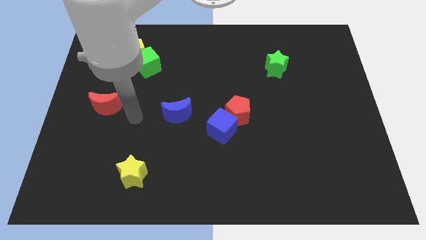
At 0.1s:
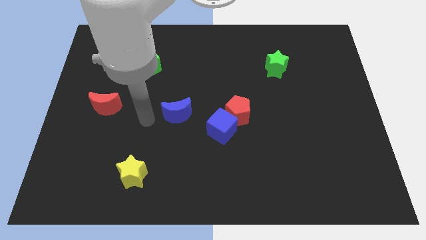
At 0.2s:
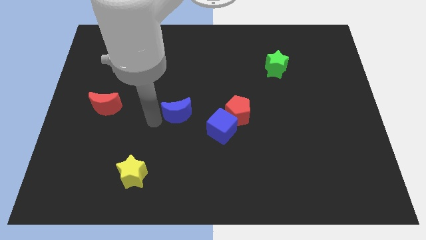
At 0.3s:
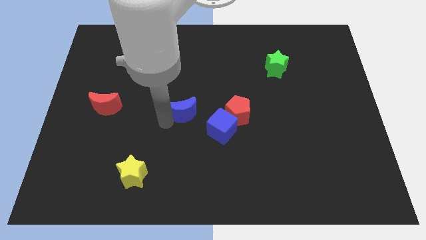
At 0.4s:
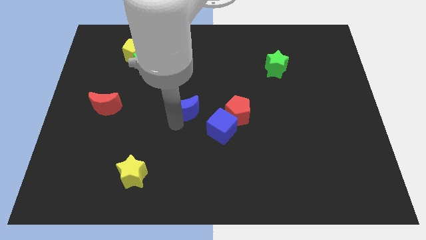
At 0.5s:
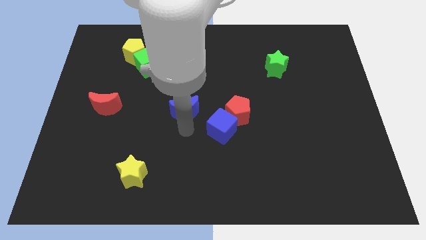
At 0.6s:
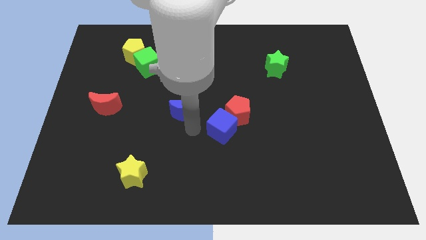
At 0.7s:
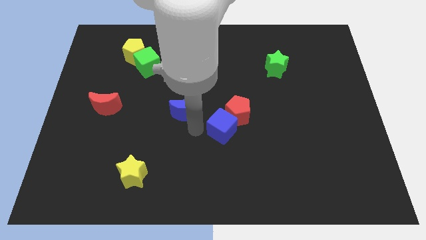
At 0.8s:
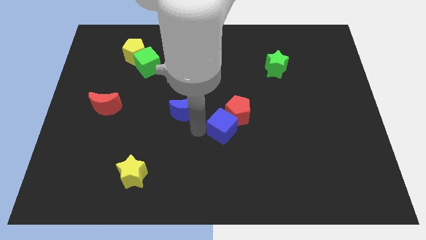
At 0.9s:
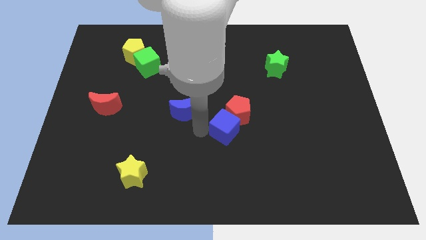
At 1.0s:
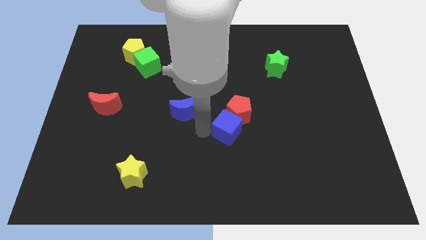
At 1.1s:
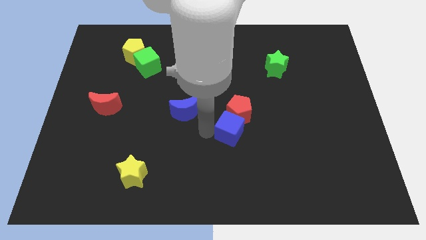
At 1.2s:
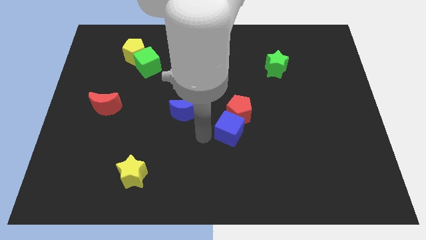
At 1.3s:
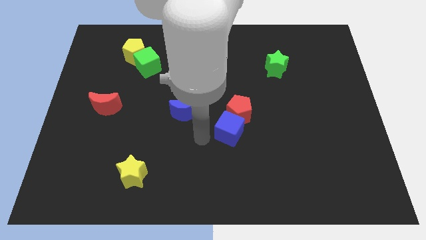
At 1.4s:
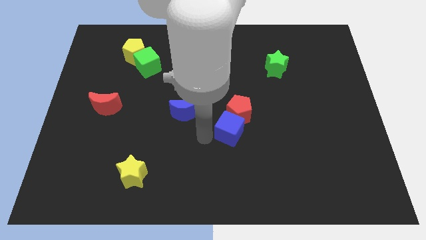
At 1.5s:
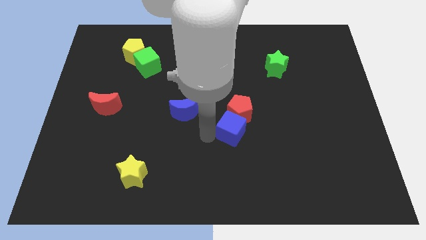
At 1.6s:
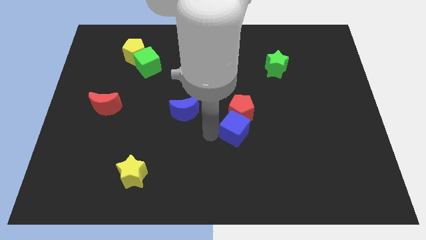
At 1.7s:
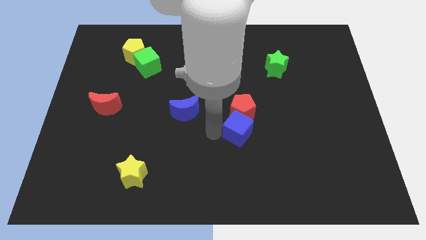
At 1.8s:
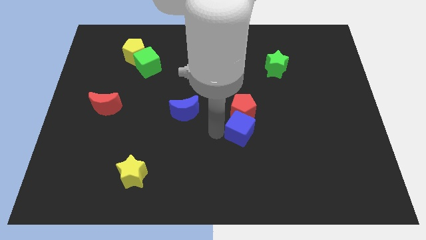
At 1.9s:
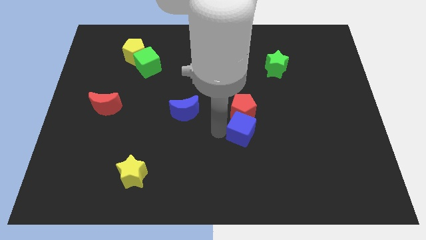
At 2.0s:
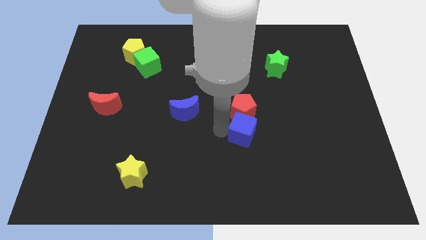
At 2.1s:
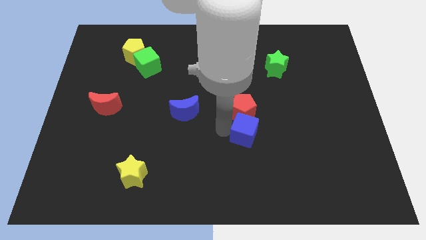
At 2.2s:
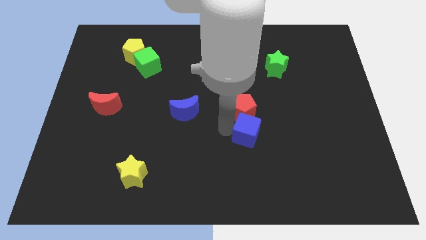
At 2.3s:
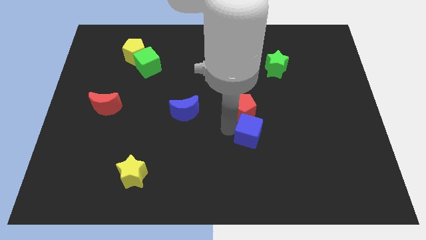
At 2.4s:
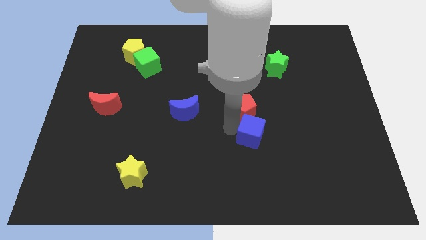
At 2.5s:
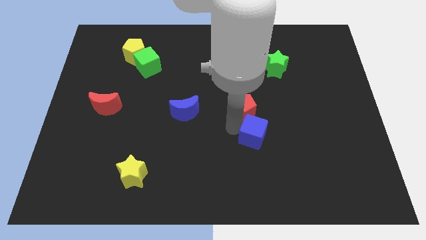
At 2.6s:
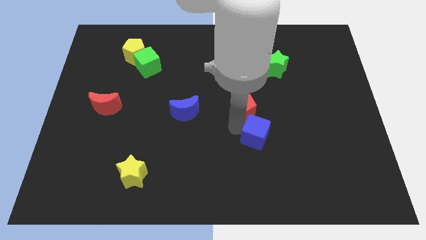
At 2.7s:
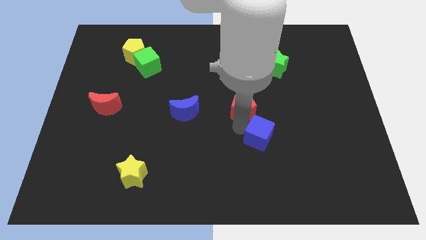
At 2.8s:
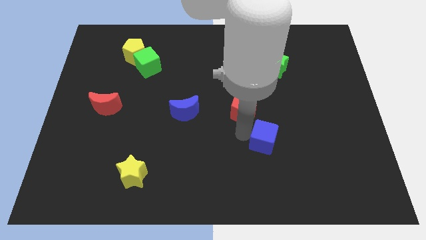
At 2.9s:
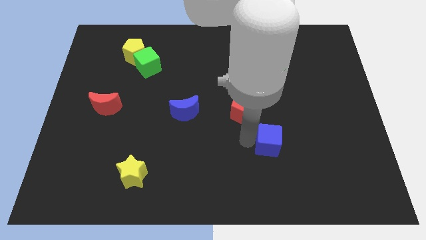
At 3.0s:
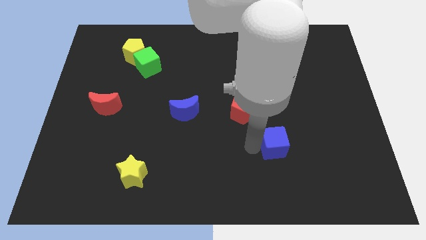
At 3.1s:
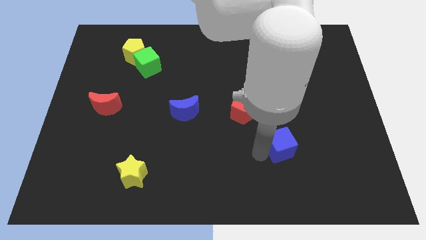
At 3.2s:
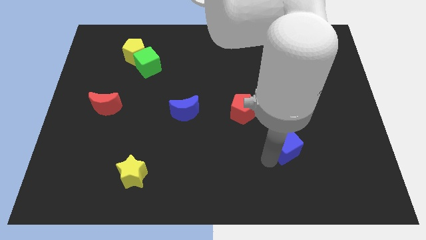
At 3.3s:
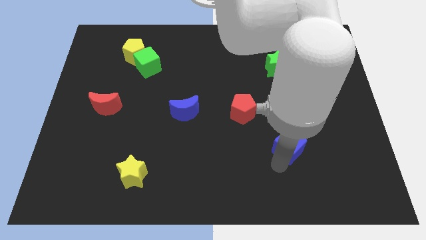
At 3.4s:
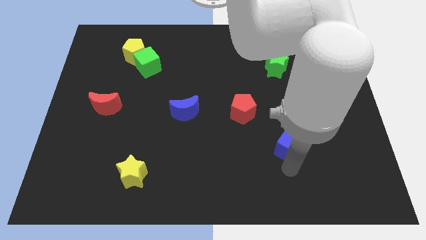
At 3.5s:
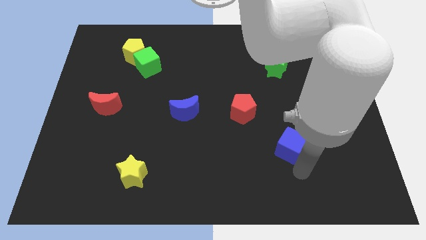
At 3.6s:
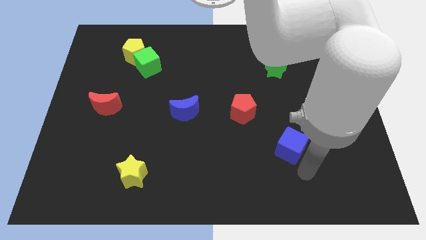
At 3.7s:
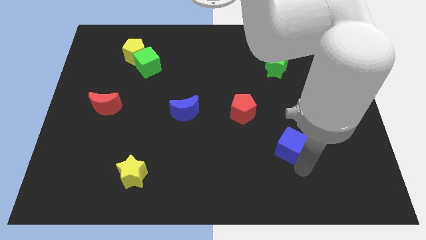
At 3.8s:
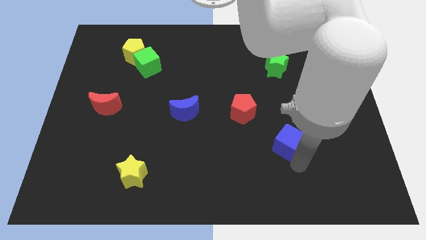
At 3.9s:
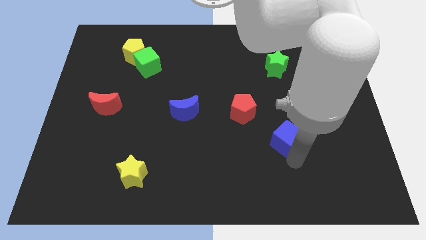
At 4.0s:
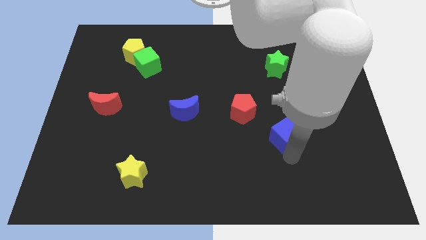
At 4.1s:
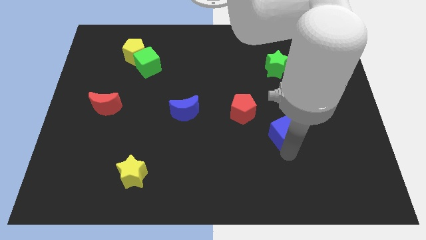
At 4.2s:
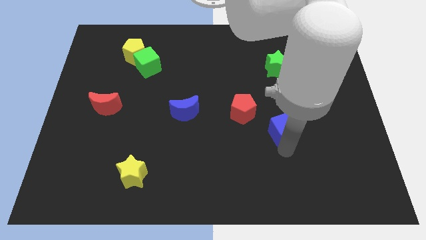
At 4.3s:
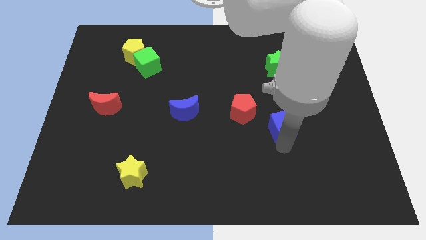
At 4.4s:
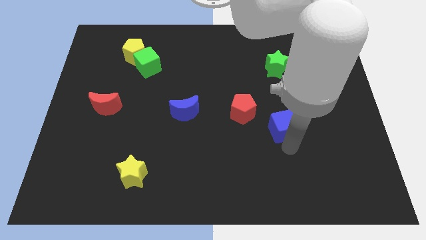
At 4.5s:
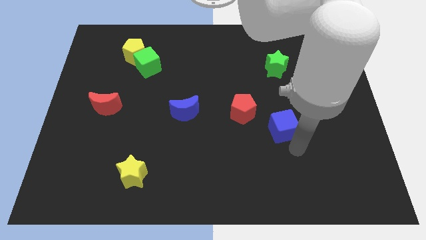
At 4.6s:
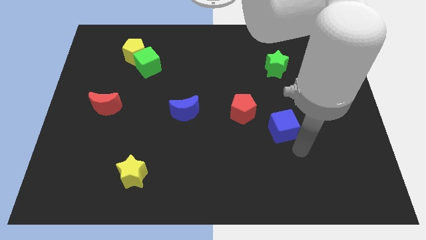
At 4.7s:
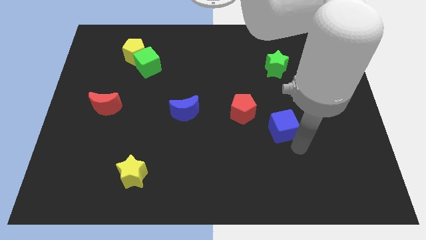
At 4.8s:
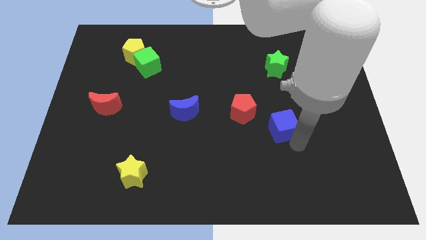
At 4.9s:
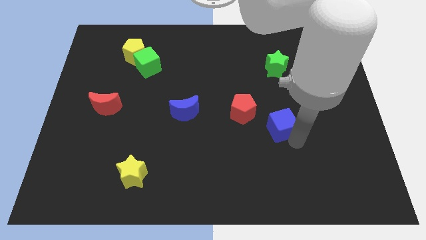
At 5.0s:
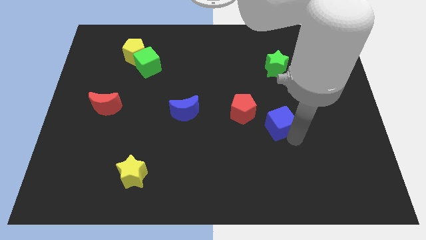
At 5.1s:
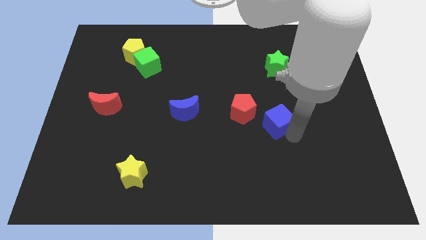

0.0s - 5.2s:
slide the blue cube somewhat diagonally upwards and to the right

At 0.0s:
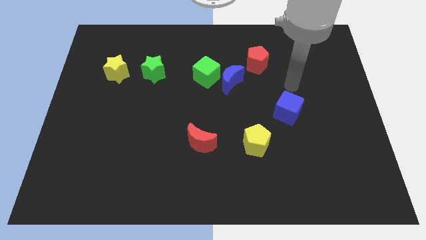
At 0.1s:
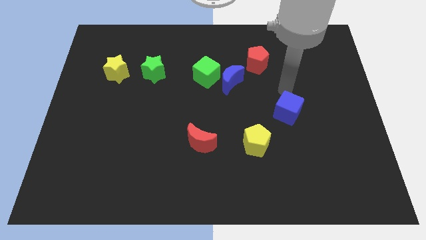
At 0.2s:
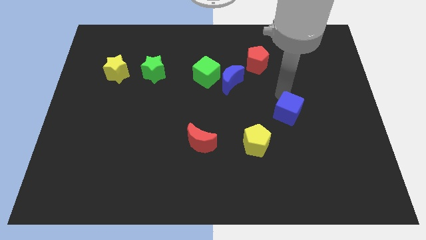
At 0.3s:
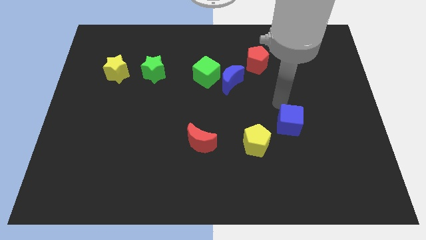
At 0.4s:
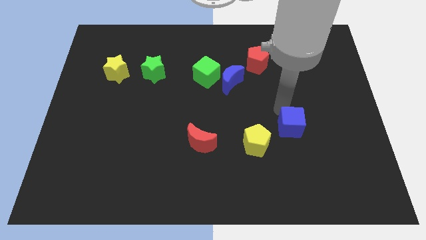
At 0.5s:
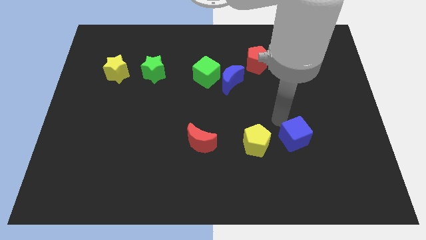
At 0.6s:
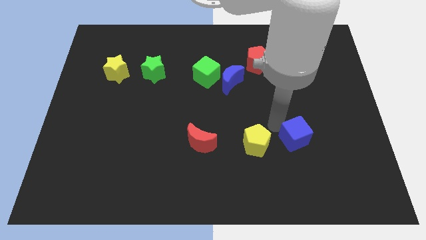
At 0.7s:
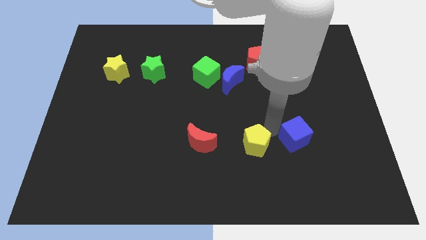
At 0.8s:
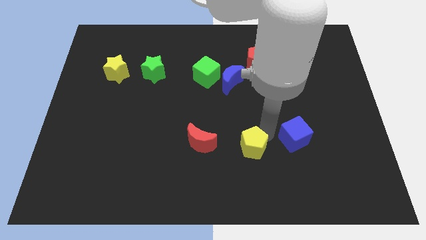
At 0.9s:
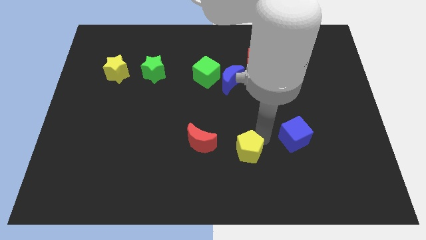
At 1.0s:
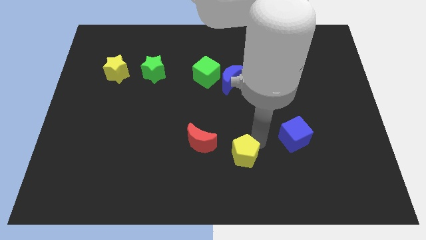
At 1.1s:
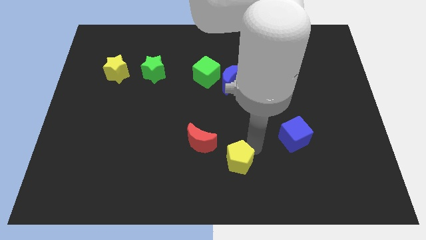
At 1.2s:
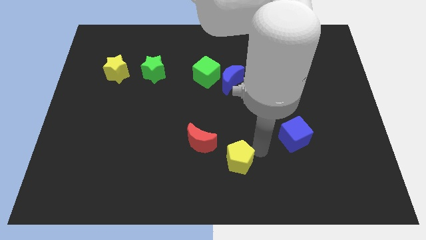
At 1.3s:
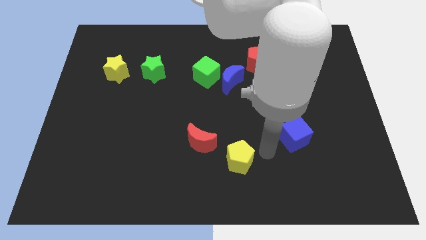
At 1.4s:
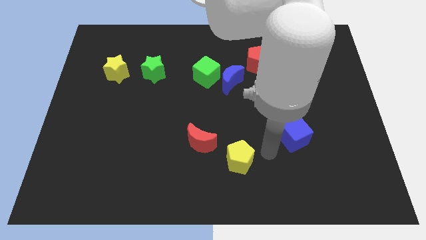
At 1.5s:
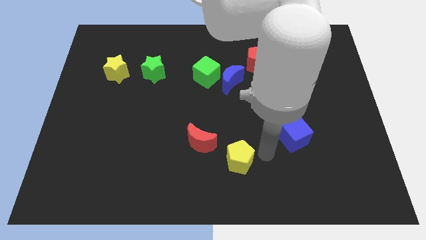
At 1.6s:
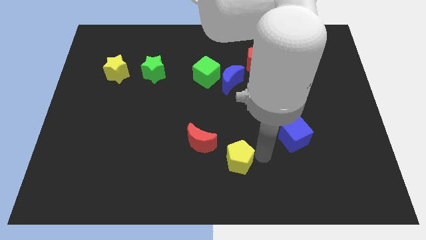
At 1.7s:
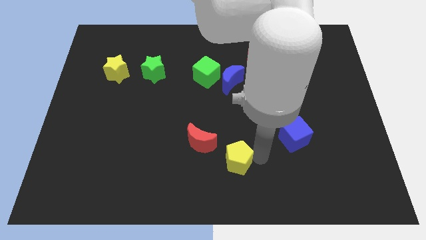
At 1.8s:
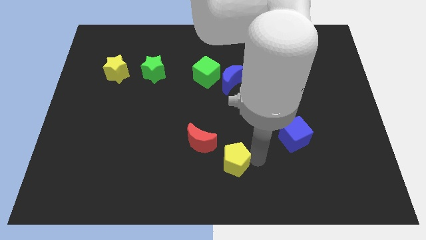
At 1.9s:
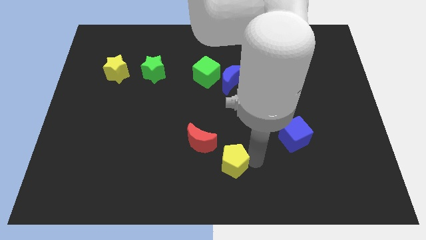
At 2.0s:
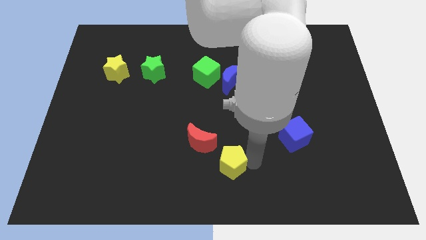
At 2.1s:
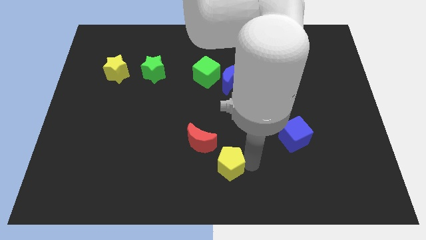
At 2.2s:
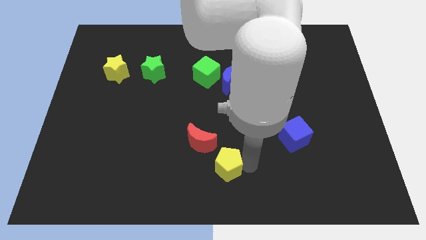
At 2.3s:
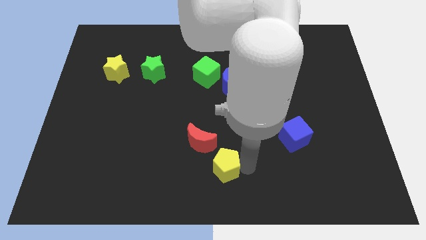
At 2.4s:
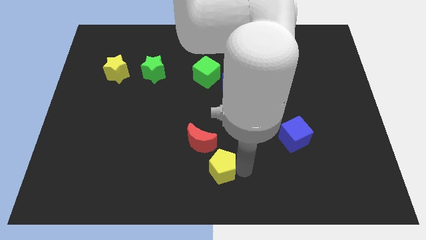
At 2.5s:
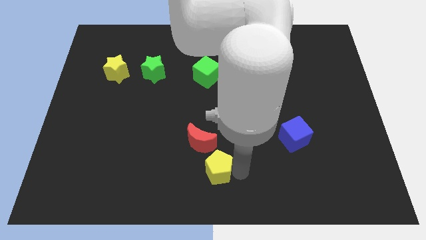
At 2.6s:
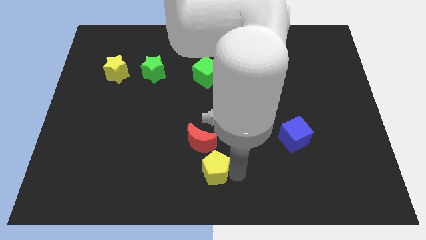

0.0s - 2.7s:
slide the yellow pentagon a bit left

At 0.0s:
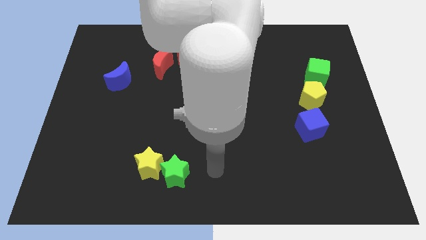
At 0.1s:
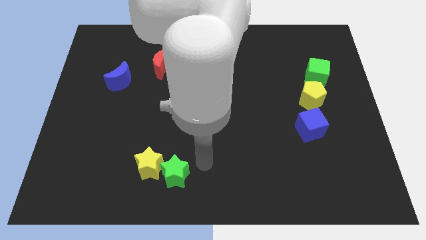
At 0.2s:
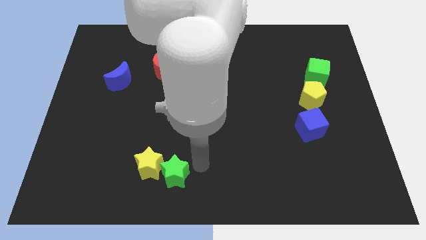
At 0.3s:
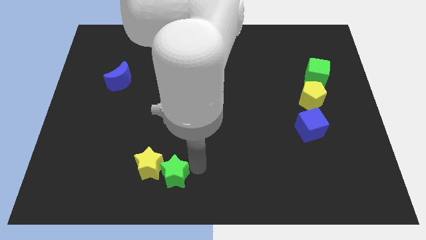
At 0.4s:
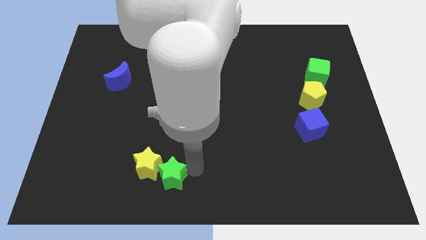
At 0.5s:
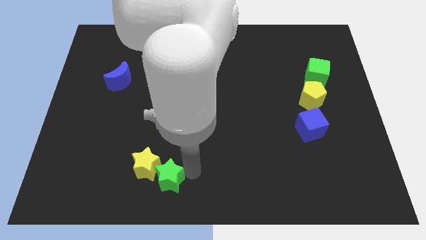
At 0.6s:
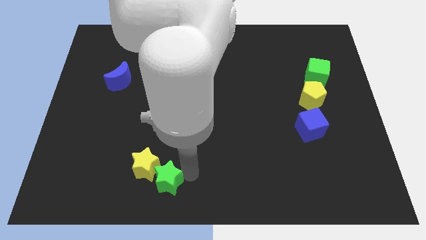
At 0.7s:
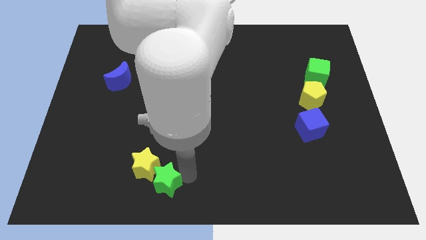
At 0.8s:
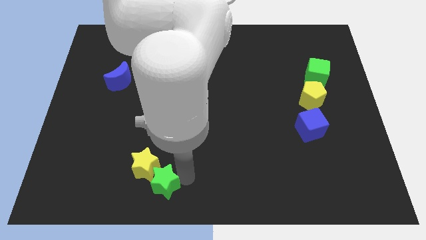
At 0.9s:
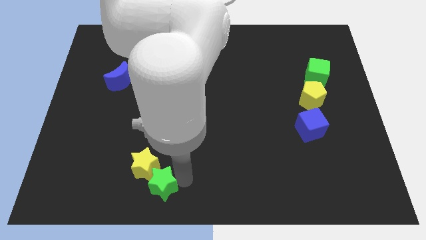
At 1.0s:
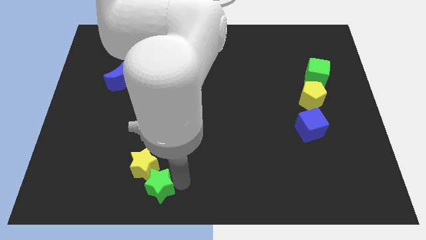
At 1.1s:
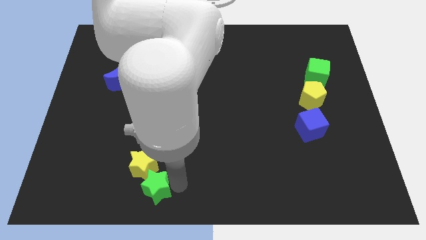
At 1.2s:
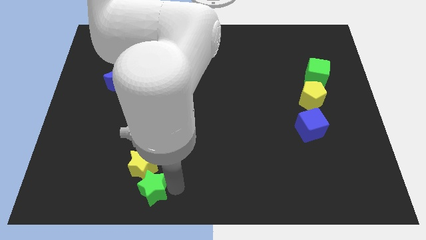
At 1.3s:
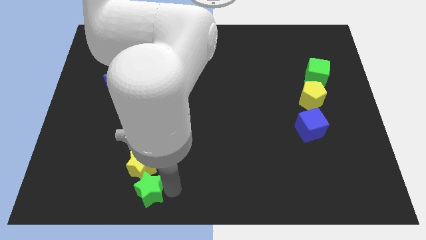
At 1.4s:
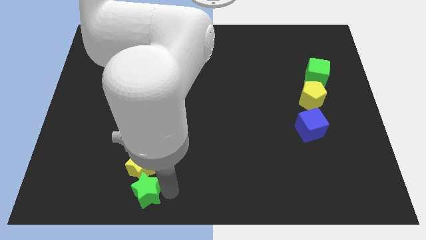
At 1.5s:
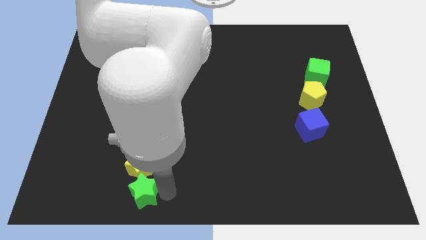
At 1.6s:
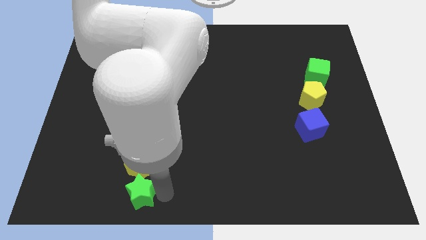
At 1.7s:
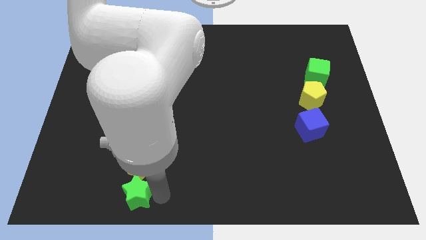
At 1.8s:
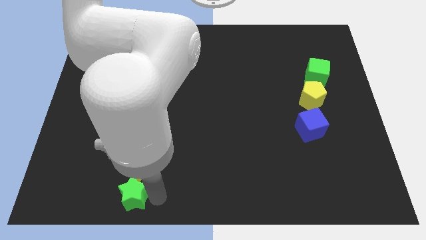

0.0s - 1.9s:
slightly push the green star to the left
